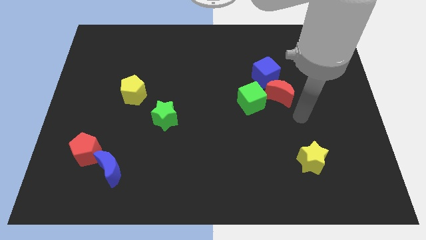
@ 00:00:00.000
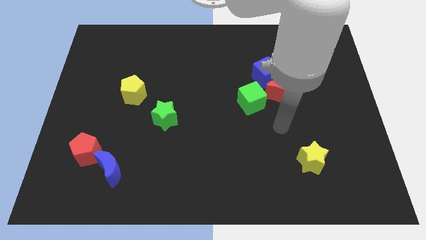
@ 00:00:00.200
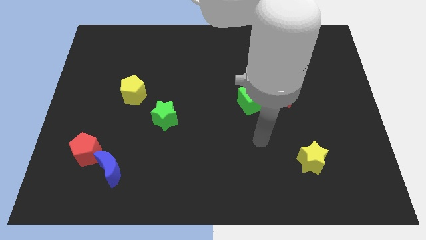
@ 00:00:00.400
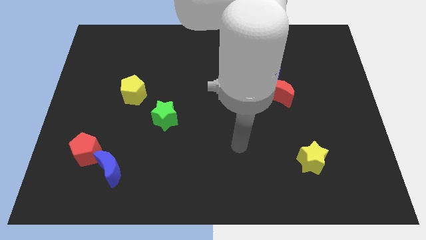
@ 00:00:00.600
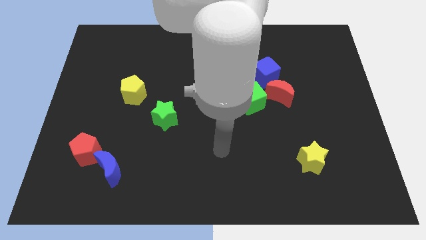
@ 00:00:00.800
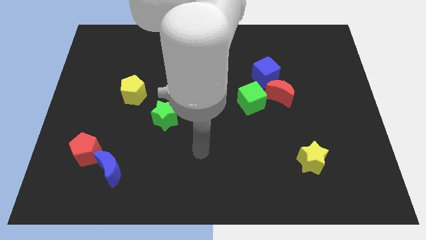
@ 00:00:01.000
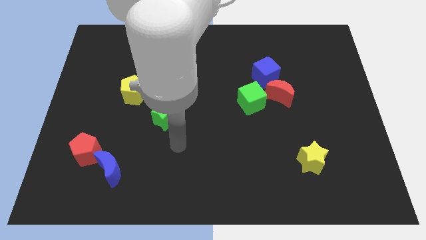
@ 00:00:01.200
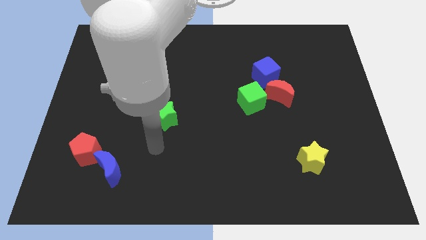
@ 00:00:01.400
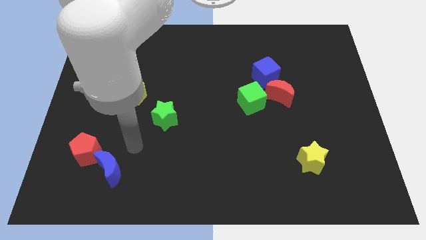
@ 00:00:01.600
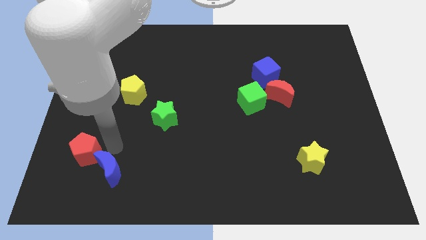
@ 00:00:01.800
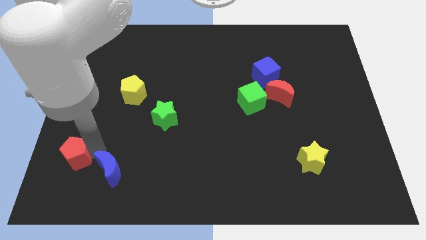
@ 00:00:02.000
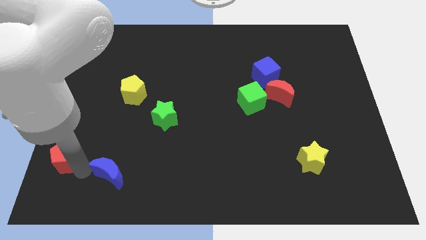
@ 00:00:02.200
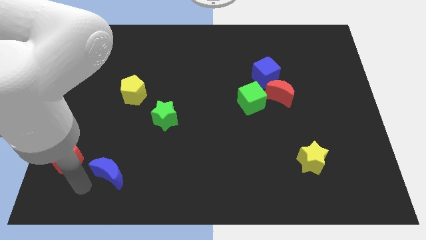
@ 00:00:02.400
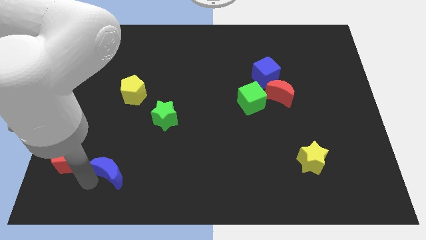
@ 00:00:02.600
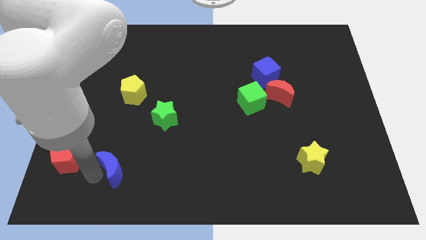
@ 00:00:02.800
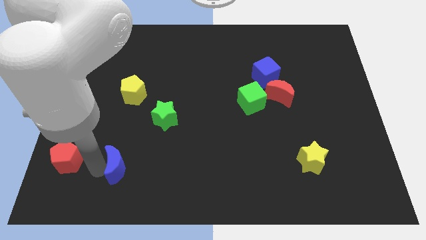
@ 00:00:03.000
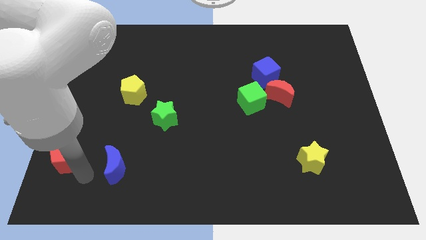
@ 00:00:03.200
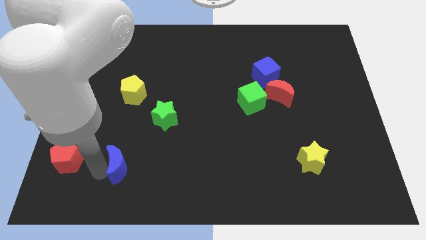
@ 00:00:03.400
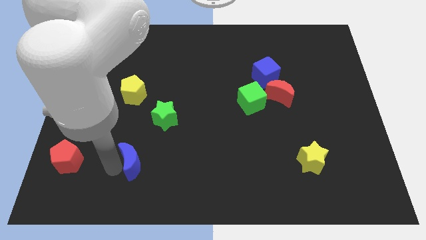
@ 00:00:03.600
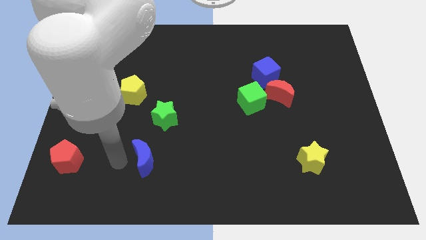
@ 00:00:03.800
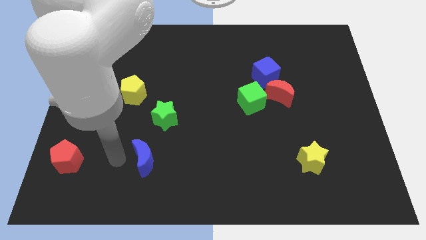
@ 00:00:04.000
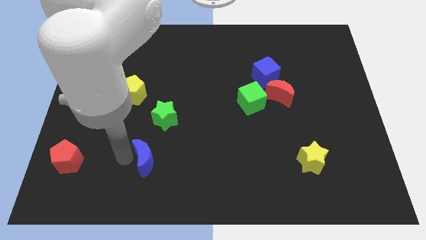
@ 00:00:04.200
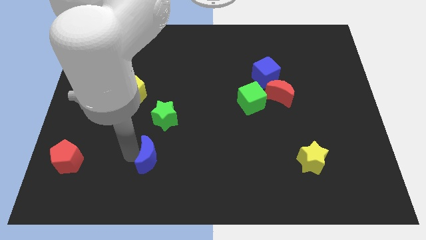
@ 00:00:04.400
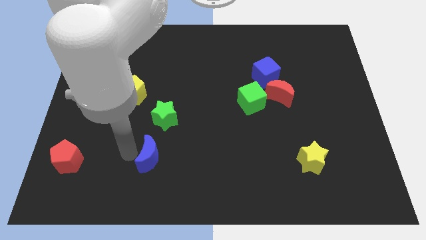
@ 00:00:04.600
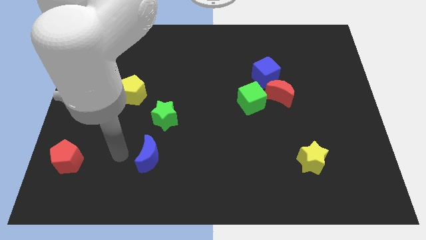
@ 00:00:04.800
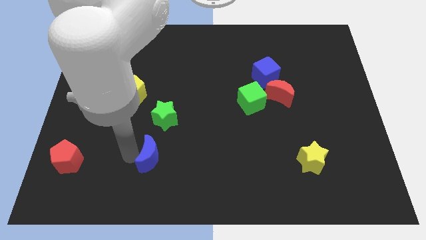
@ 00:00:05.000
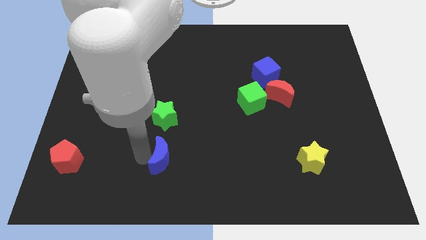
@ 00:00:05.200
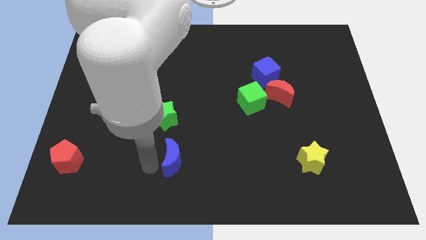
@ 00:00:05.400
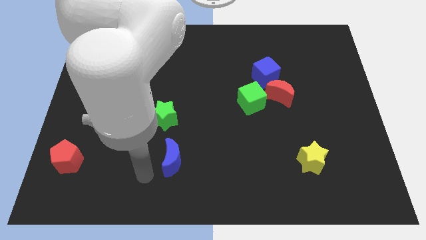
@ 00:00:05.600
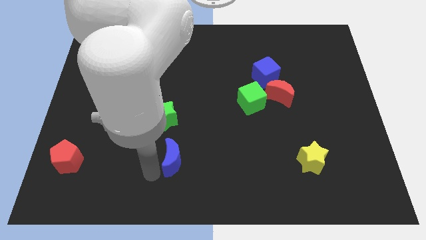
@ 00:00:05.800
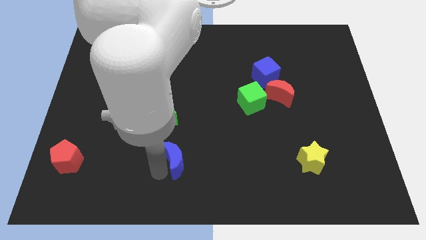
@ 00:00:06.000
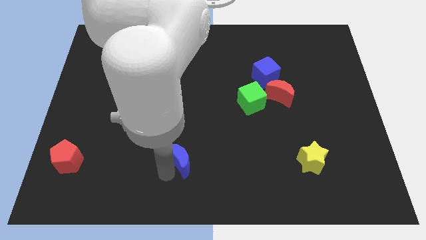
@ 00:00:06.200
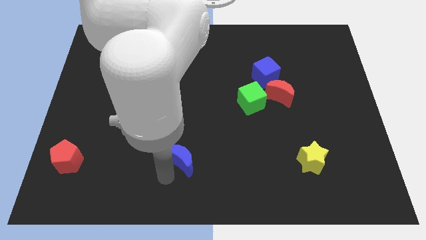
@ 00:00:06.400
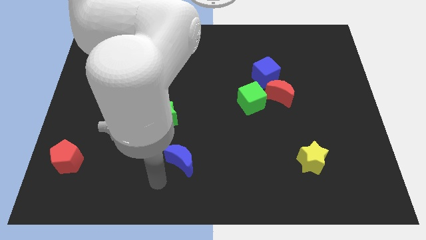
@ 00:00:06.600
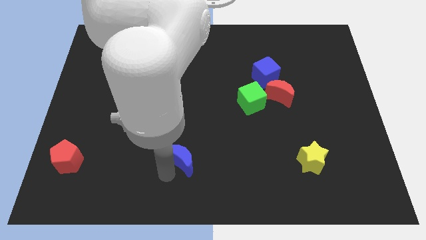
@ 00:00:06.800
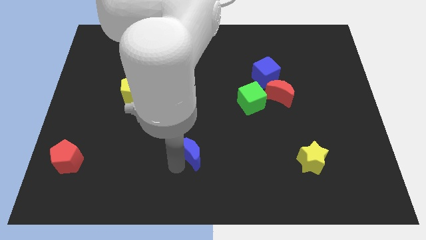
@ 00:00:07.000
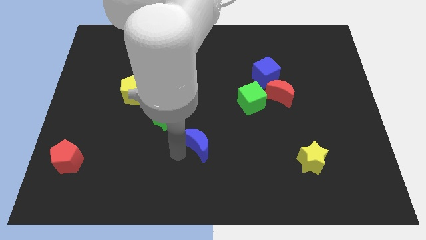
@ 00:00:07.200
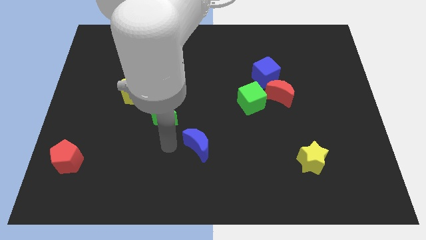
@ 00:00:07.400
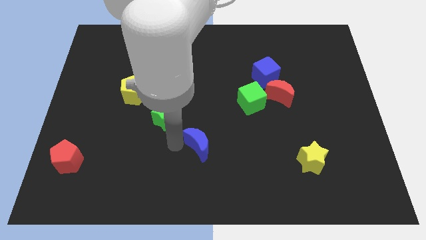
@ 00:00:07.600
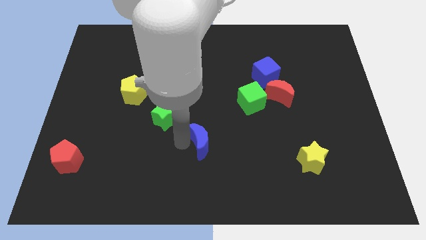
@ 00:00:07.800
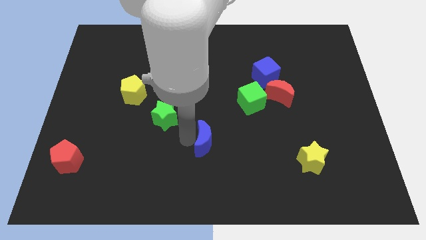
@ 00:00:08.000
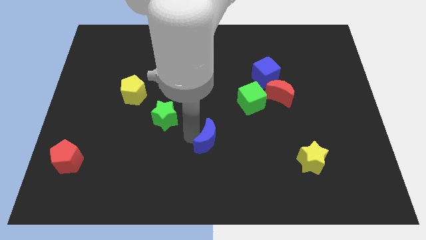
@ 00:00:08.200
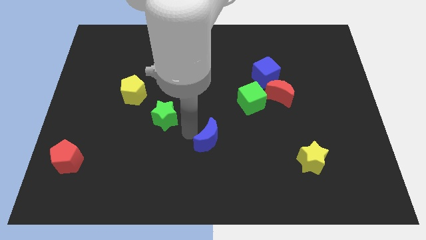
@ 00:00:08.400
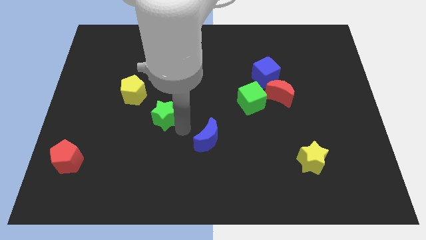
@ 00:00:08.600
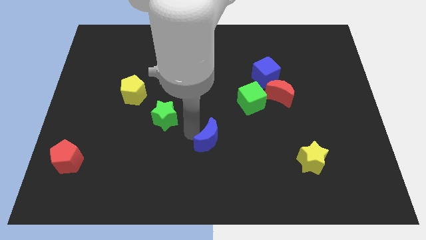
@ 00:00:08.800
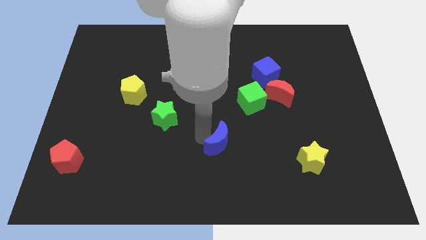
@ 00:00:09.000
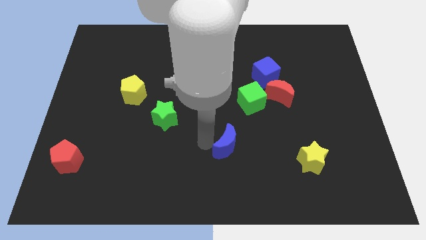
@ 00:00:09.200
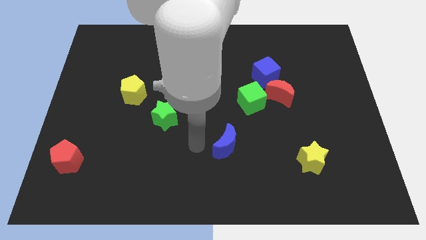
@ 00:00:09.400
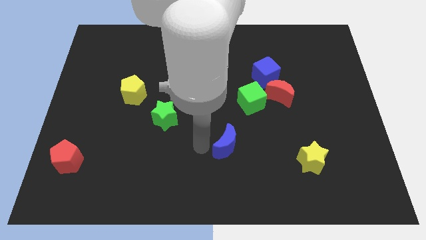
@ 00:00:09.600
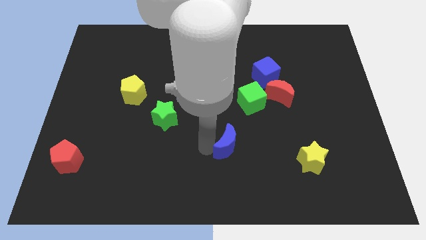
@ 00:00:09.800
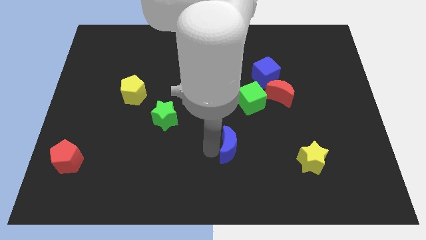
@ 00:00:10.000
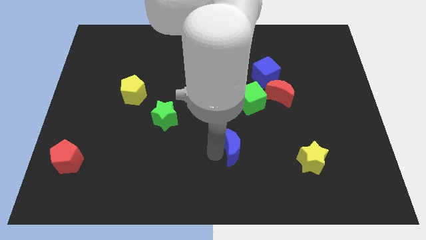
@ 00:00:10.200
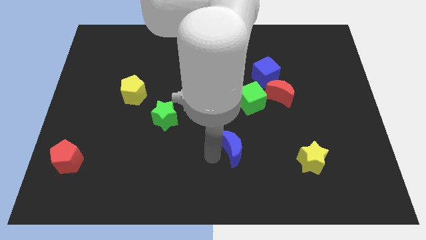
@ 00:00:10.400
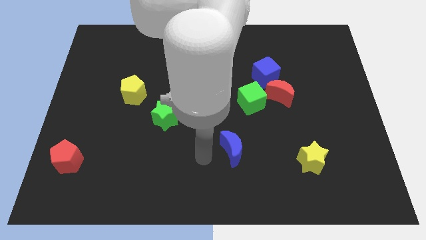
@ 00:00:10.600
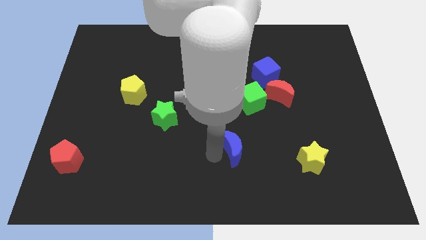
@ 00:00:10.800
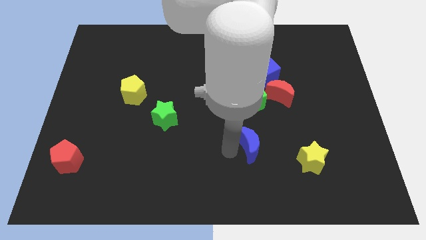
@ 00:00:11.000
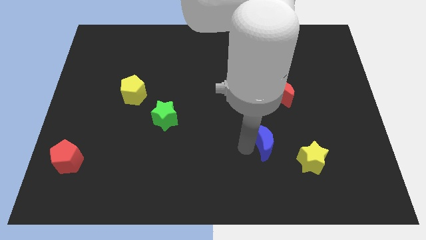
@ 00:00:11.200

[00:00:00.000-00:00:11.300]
put the blue moon to the top left side of the yellow star

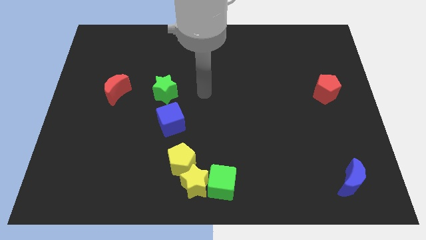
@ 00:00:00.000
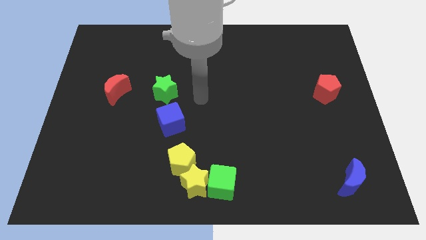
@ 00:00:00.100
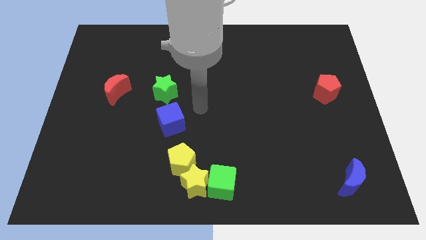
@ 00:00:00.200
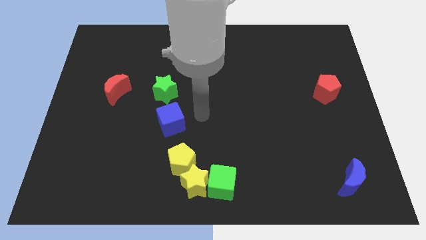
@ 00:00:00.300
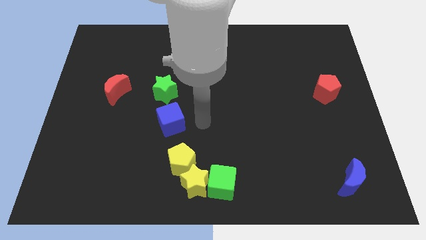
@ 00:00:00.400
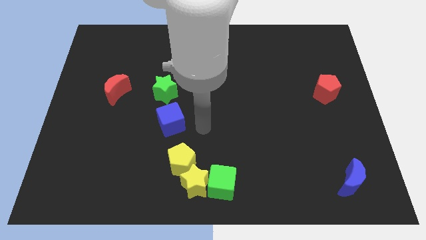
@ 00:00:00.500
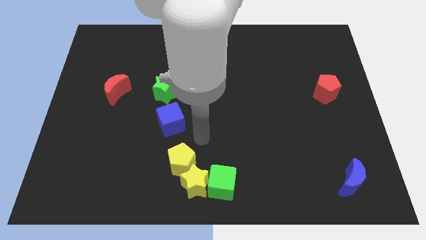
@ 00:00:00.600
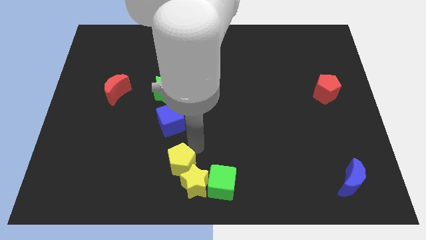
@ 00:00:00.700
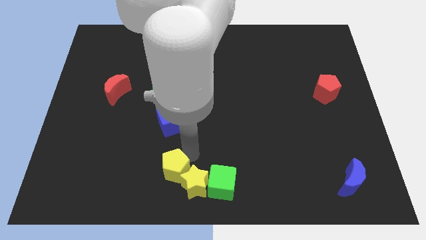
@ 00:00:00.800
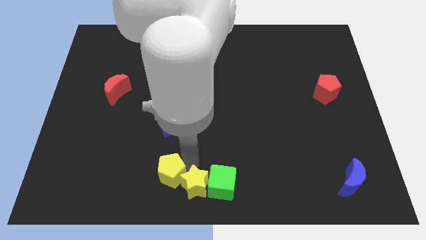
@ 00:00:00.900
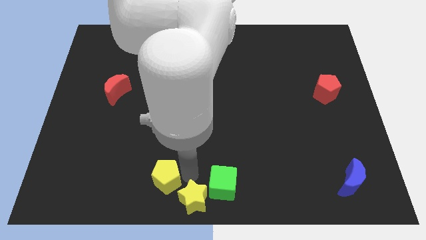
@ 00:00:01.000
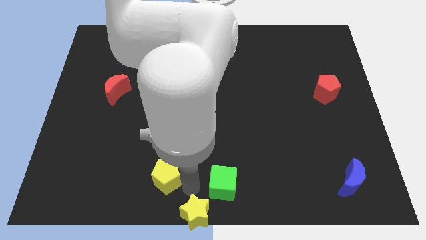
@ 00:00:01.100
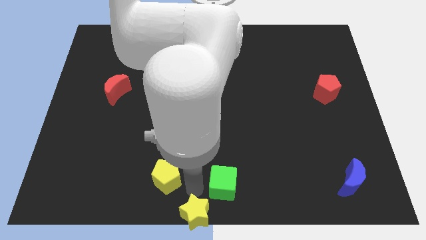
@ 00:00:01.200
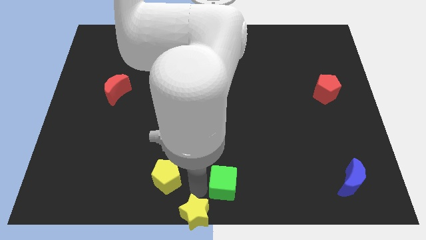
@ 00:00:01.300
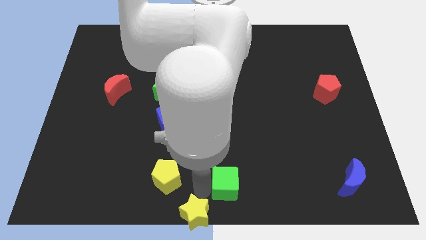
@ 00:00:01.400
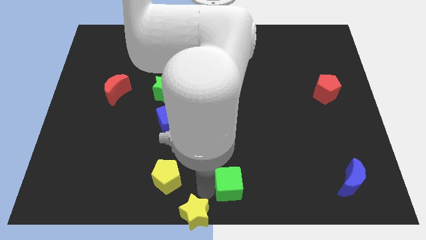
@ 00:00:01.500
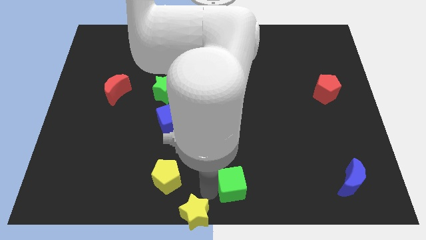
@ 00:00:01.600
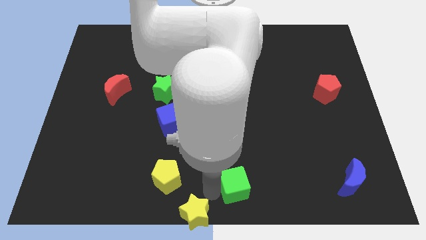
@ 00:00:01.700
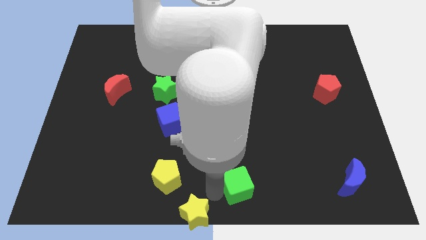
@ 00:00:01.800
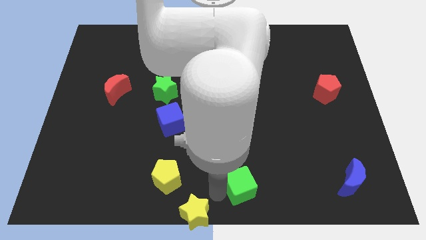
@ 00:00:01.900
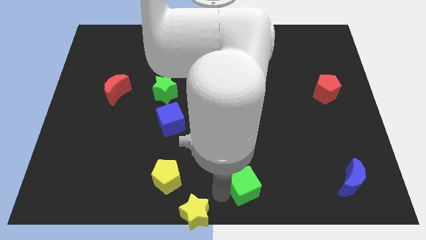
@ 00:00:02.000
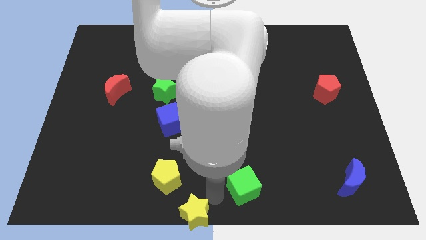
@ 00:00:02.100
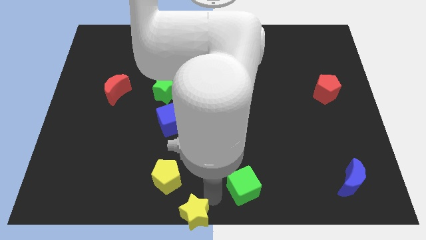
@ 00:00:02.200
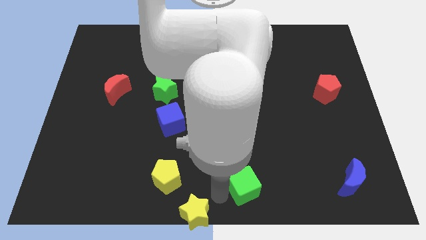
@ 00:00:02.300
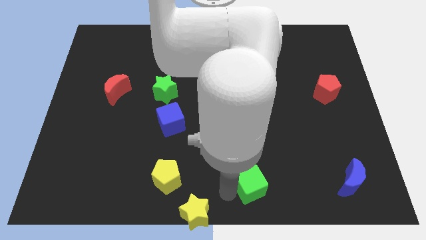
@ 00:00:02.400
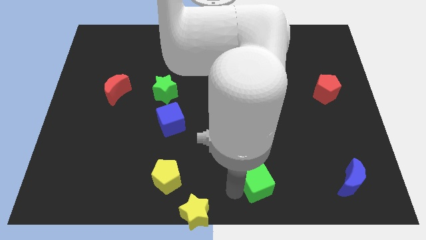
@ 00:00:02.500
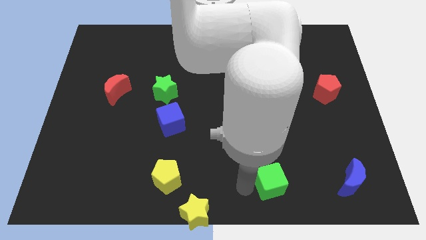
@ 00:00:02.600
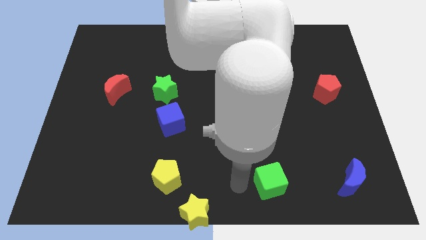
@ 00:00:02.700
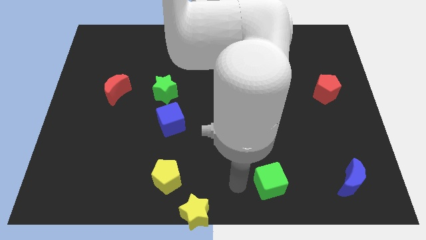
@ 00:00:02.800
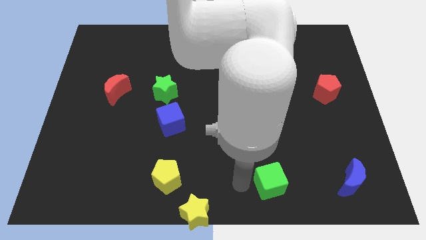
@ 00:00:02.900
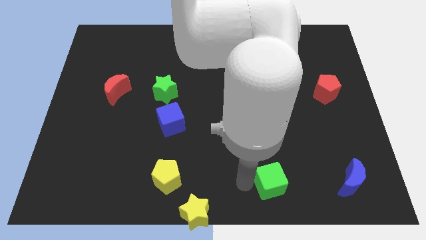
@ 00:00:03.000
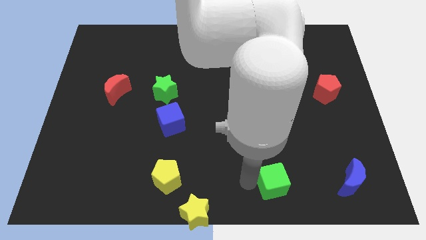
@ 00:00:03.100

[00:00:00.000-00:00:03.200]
push the green cube to the left of the blue moon
